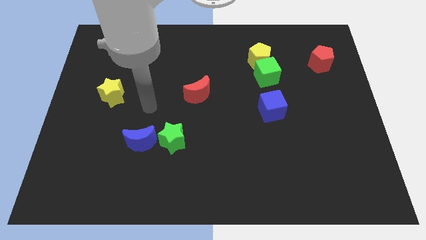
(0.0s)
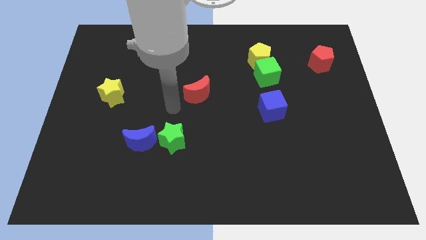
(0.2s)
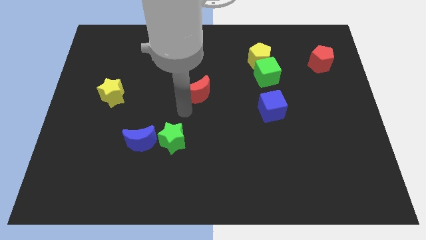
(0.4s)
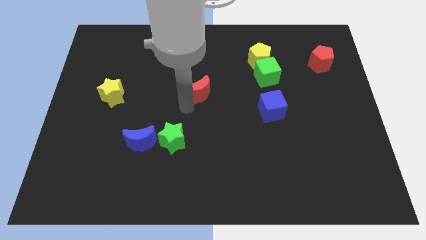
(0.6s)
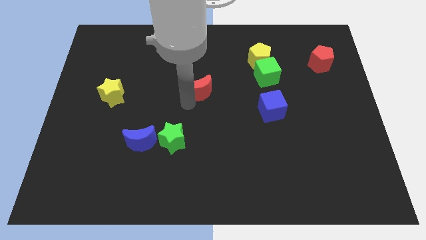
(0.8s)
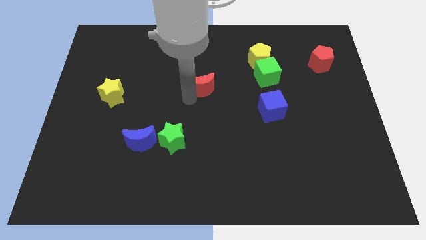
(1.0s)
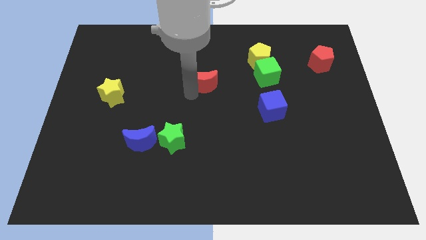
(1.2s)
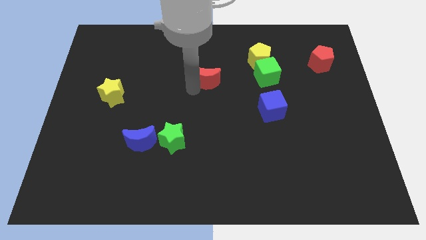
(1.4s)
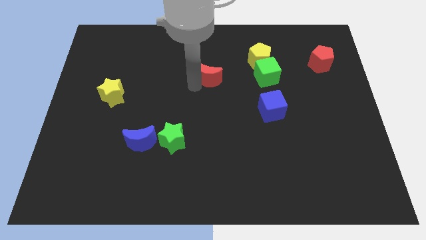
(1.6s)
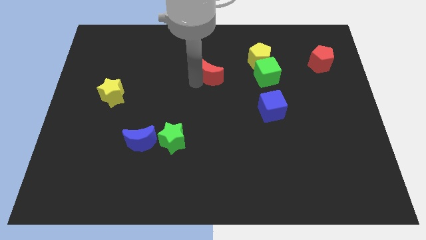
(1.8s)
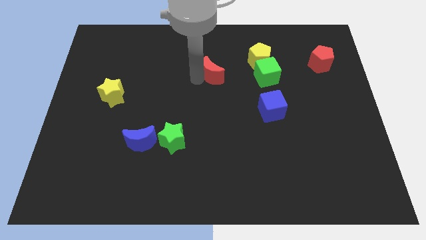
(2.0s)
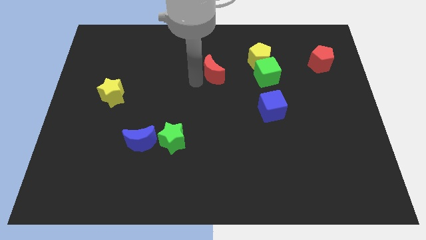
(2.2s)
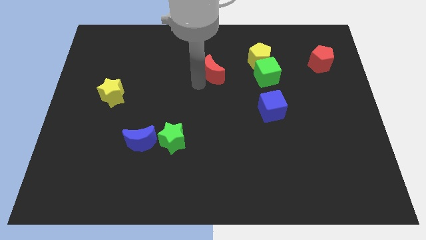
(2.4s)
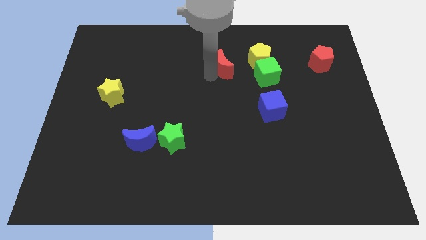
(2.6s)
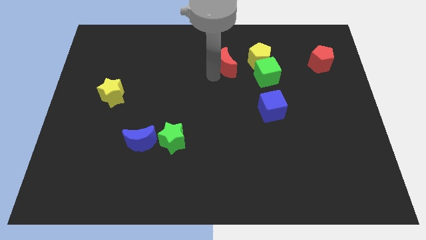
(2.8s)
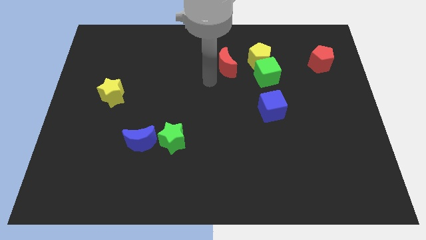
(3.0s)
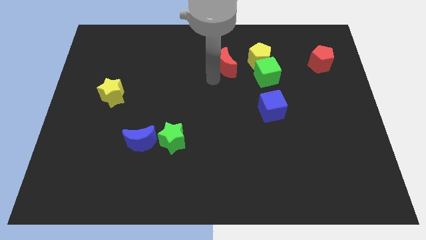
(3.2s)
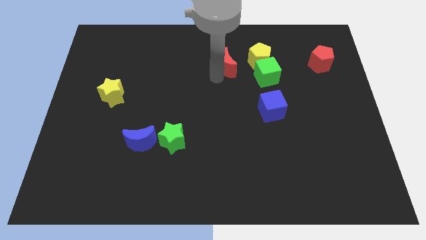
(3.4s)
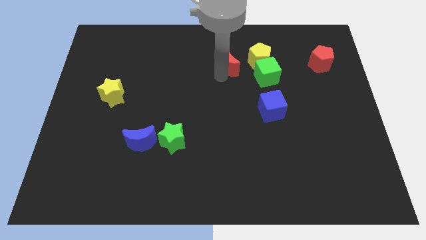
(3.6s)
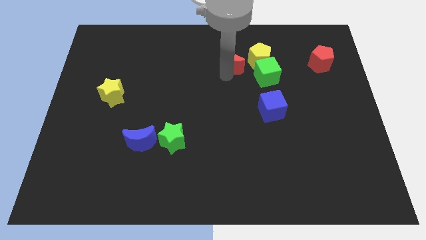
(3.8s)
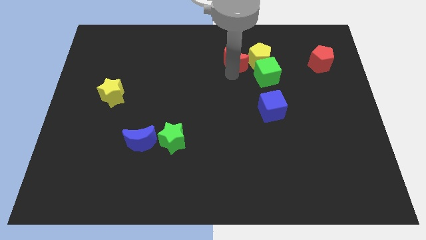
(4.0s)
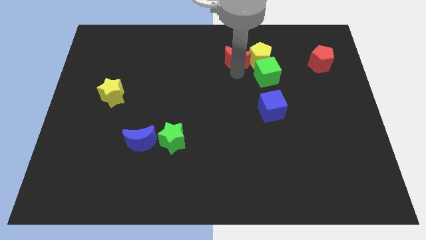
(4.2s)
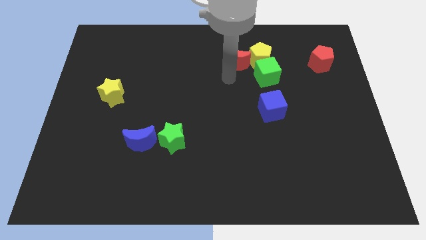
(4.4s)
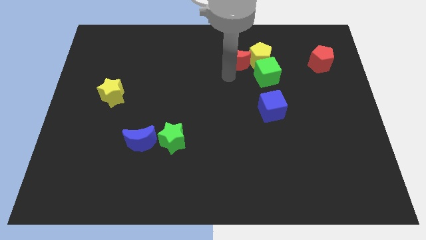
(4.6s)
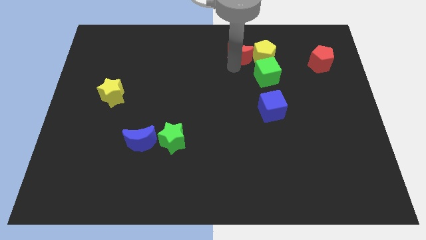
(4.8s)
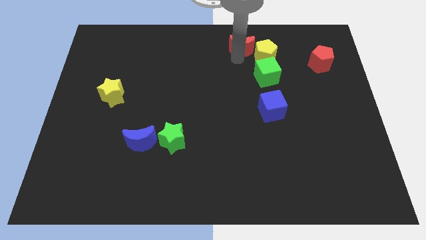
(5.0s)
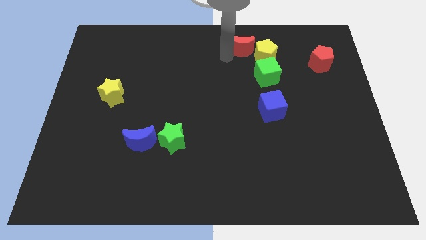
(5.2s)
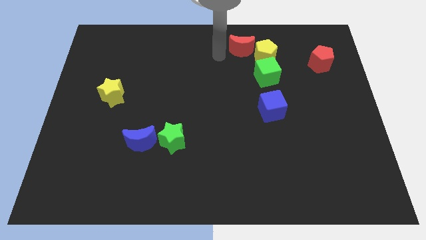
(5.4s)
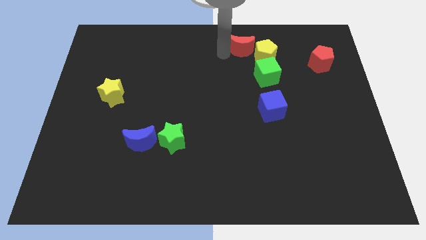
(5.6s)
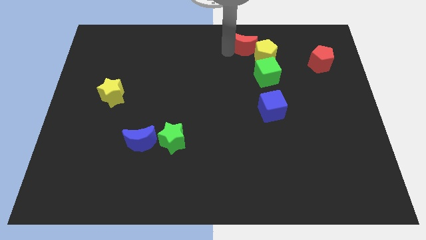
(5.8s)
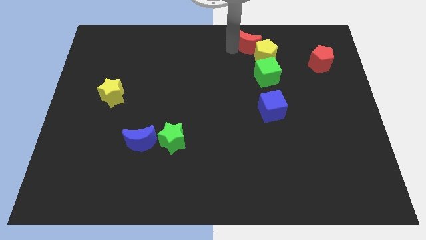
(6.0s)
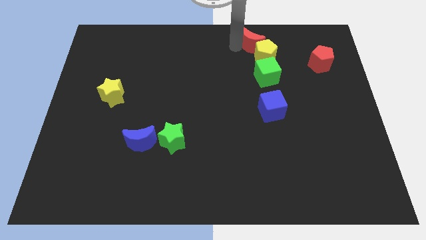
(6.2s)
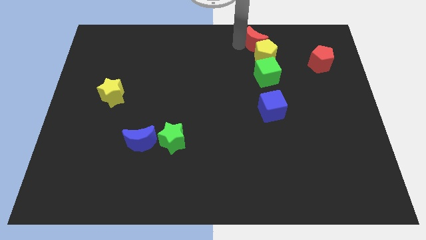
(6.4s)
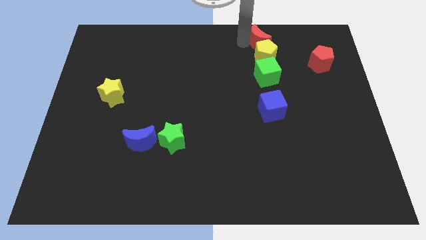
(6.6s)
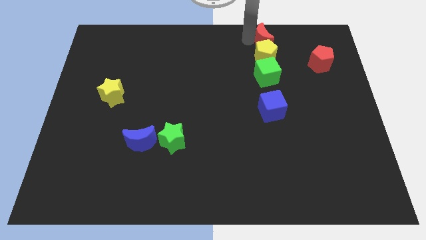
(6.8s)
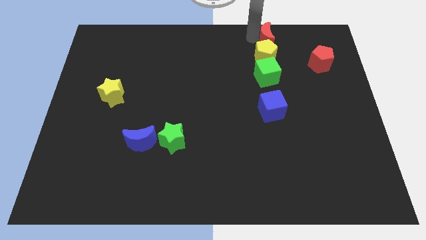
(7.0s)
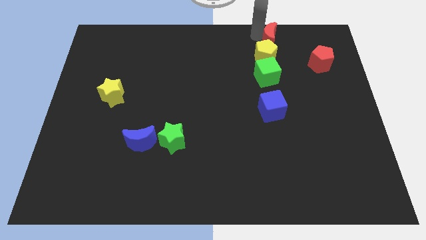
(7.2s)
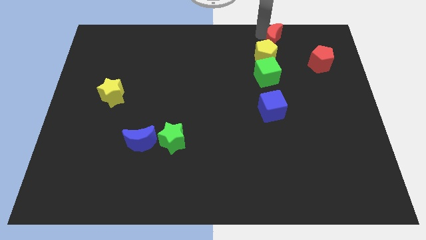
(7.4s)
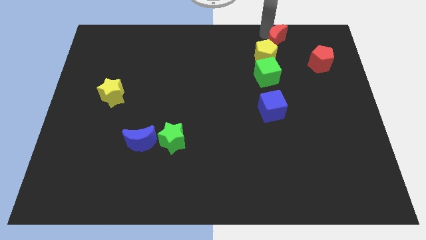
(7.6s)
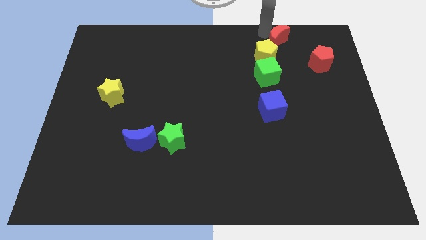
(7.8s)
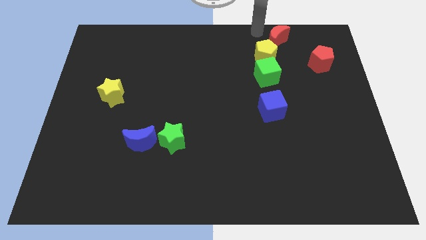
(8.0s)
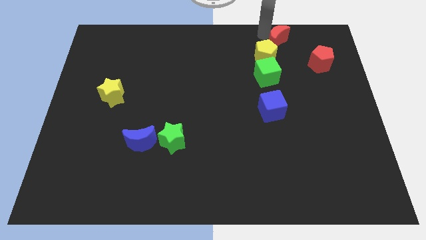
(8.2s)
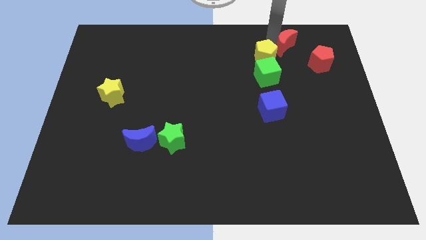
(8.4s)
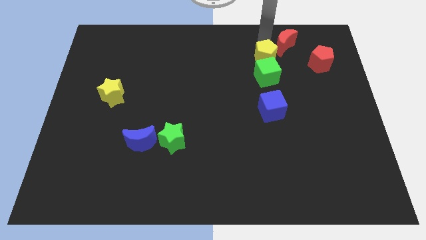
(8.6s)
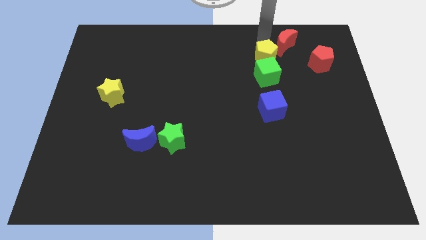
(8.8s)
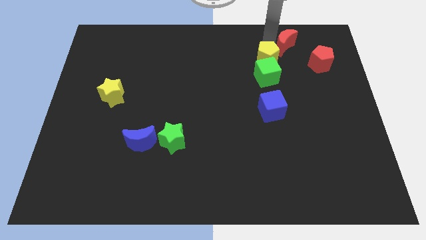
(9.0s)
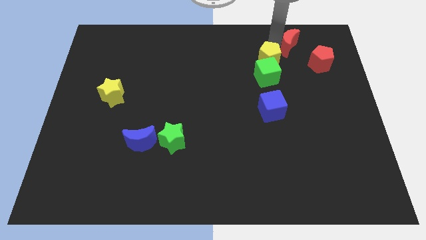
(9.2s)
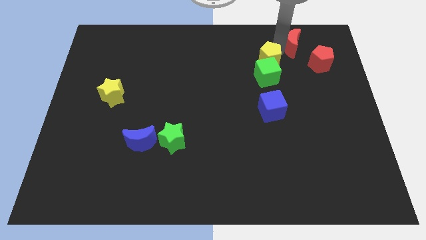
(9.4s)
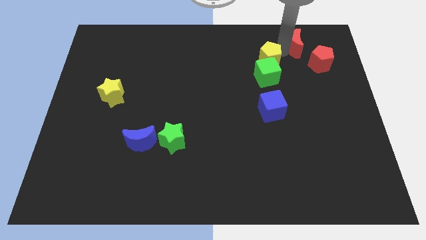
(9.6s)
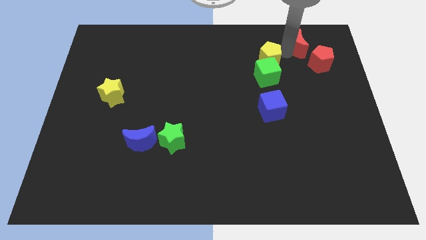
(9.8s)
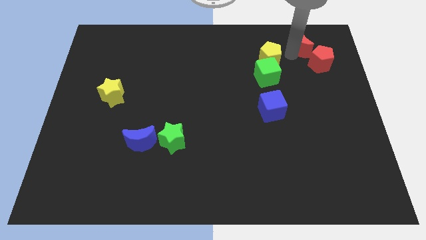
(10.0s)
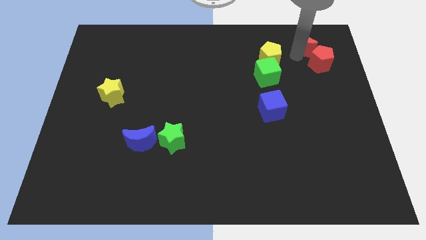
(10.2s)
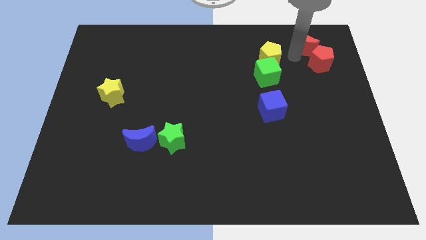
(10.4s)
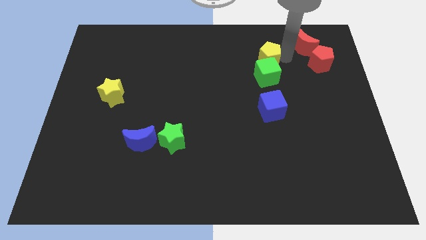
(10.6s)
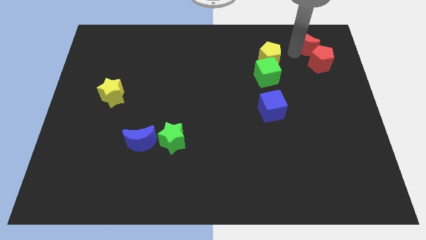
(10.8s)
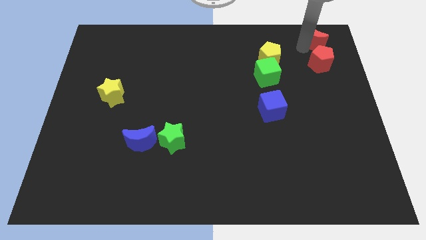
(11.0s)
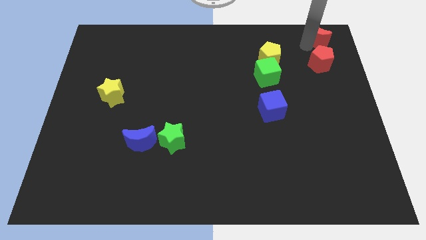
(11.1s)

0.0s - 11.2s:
push the red moon to the upper right corner

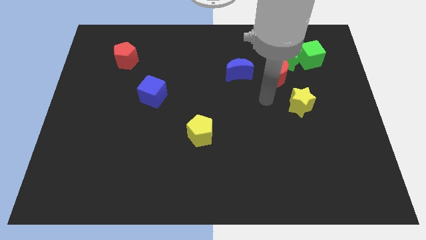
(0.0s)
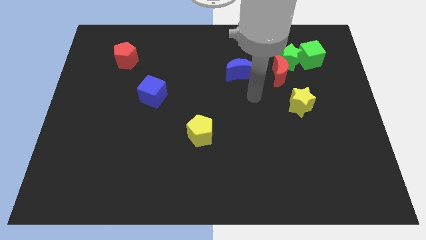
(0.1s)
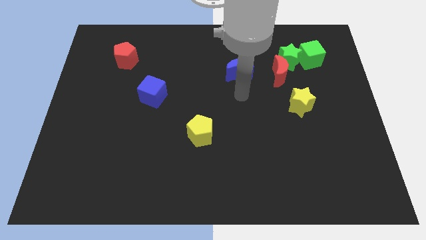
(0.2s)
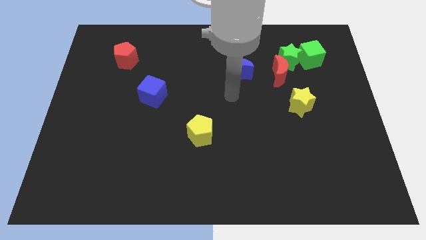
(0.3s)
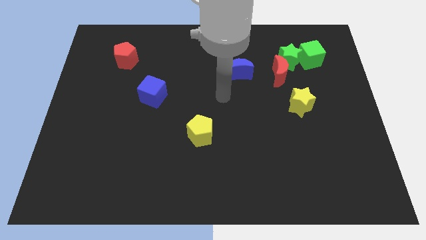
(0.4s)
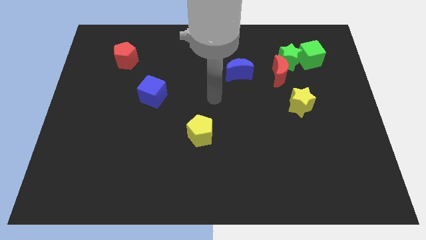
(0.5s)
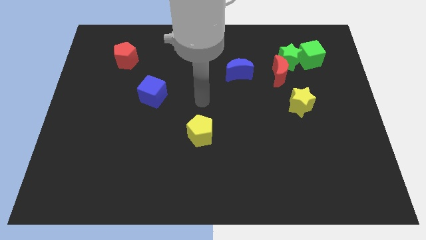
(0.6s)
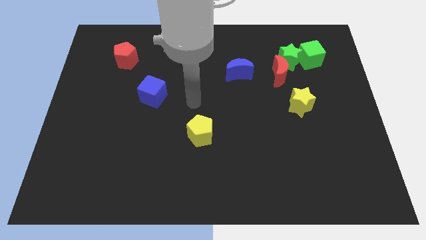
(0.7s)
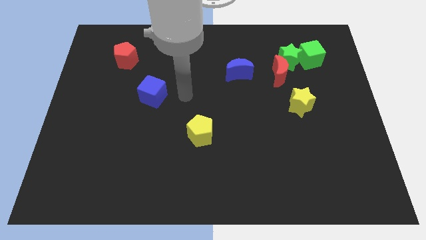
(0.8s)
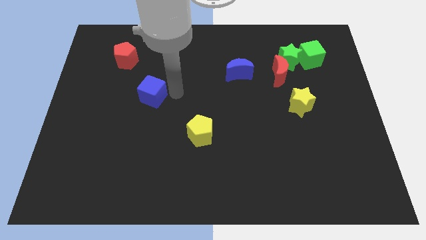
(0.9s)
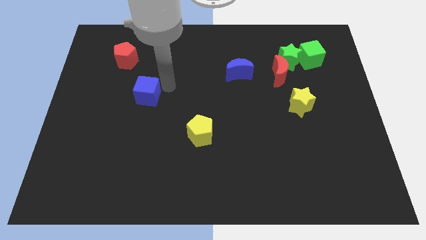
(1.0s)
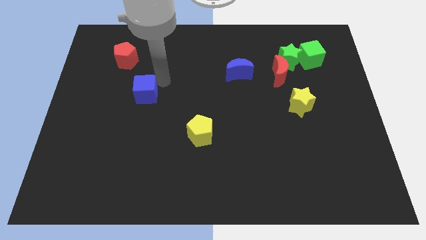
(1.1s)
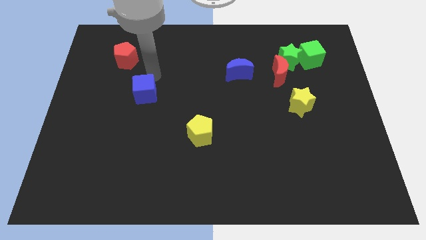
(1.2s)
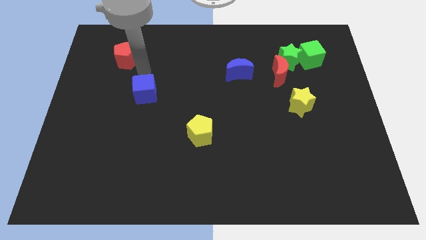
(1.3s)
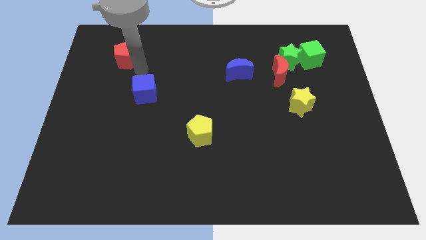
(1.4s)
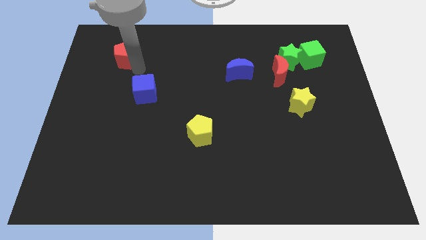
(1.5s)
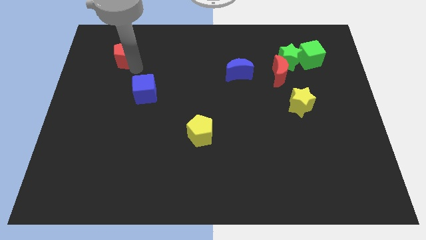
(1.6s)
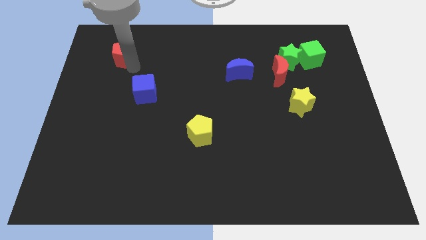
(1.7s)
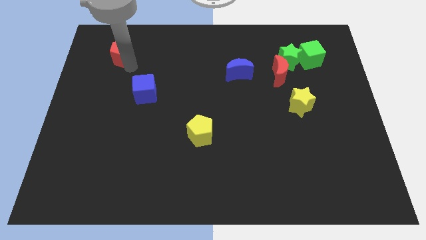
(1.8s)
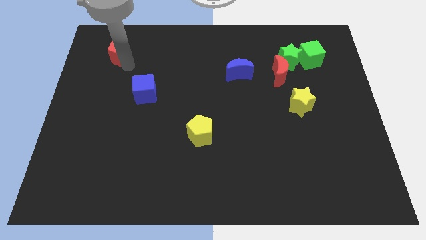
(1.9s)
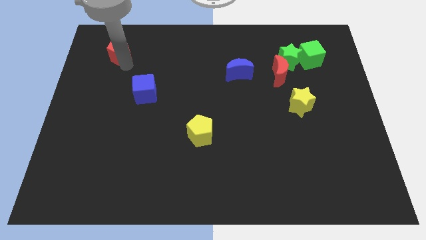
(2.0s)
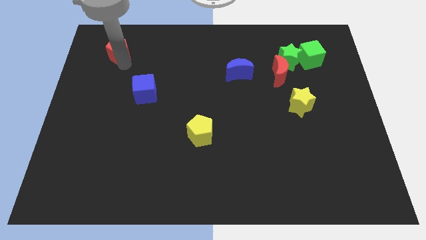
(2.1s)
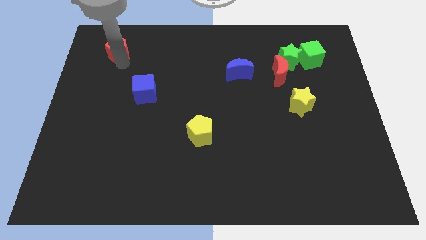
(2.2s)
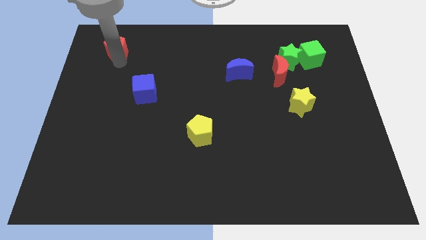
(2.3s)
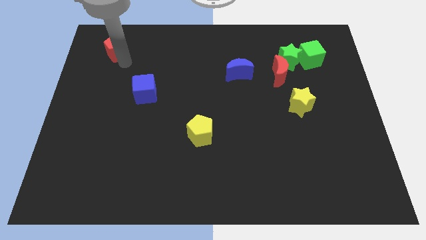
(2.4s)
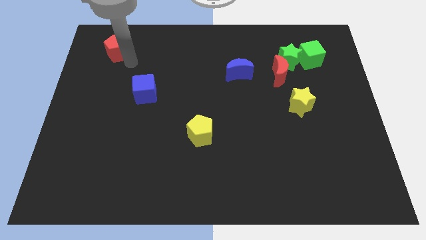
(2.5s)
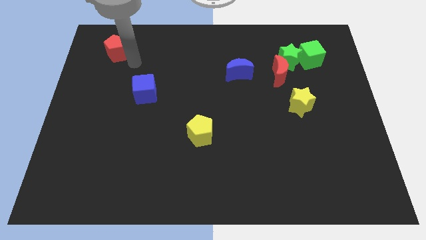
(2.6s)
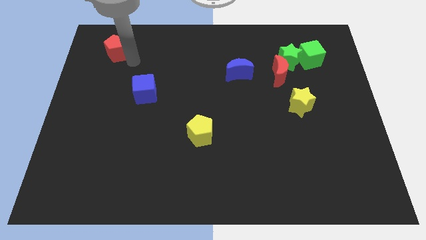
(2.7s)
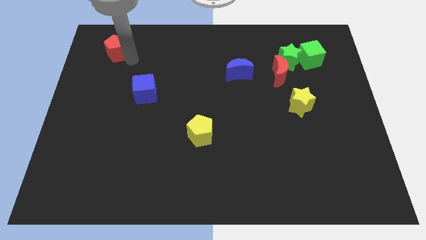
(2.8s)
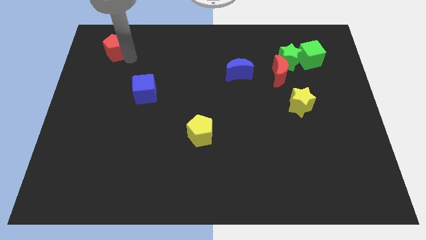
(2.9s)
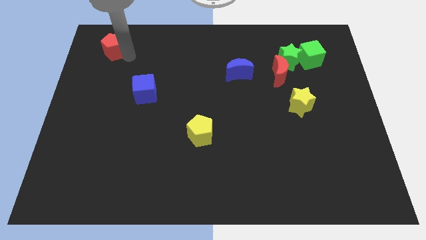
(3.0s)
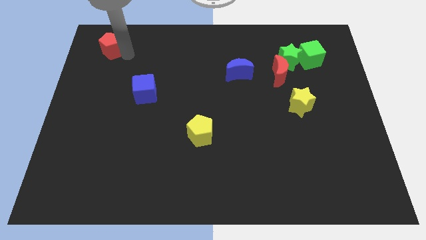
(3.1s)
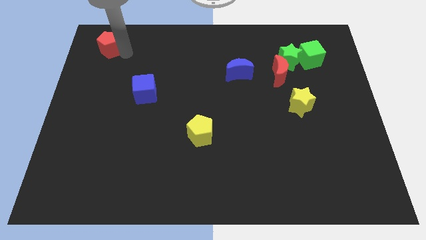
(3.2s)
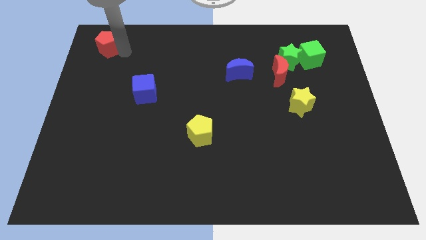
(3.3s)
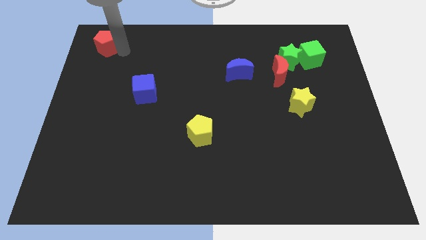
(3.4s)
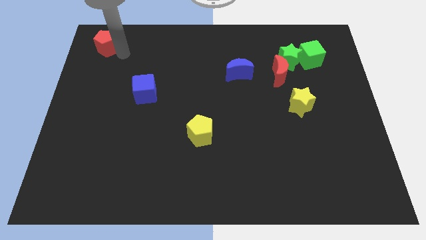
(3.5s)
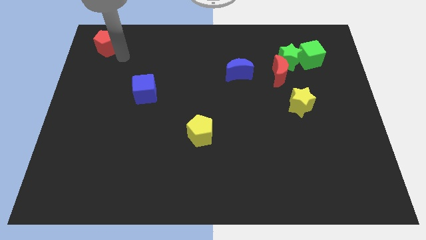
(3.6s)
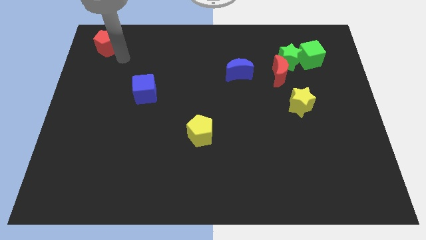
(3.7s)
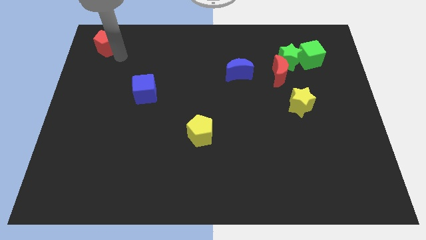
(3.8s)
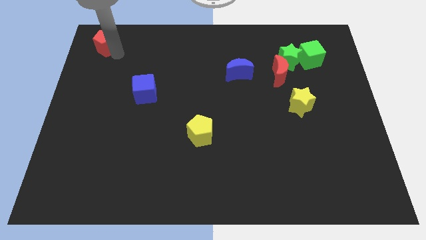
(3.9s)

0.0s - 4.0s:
slide the red pentagon to the upper left corner
